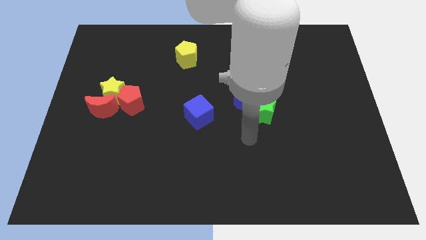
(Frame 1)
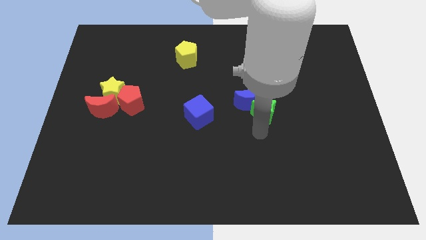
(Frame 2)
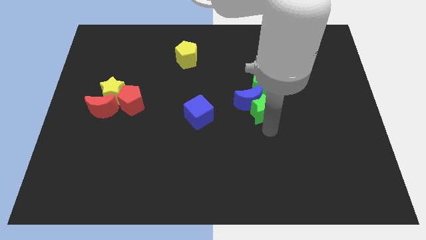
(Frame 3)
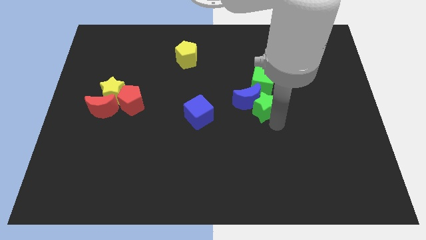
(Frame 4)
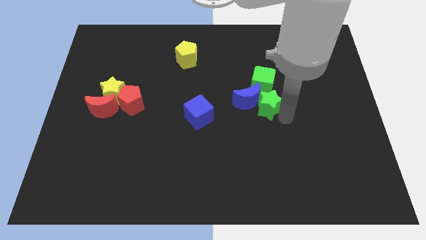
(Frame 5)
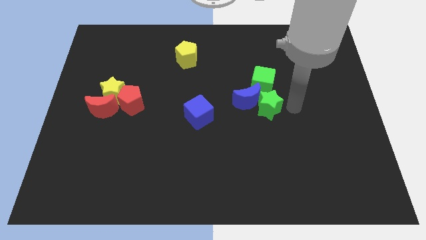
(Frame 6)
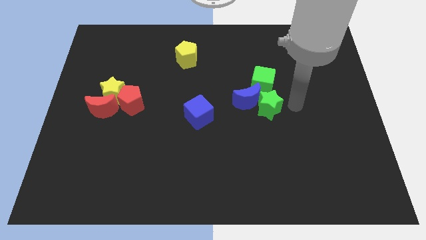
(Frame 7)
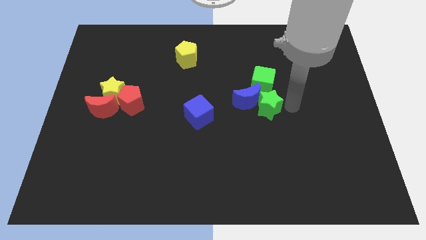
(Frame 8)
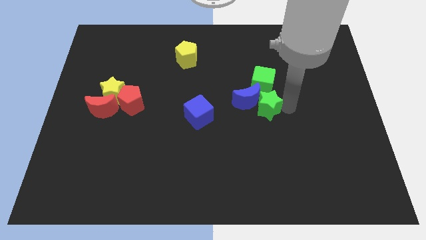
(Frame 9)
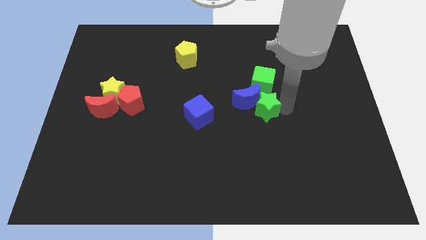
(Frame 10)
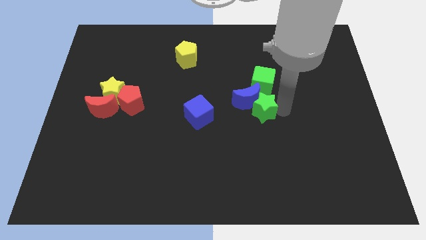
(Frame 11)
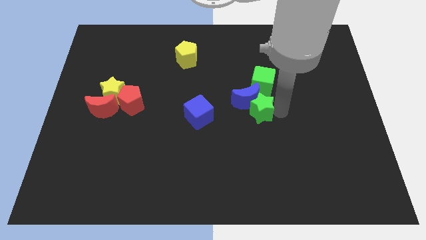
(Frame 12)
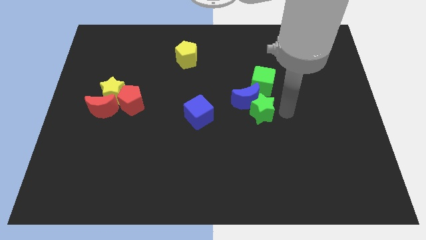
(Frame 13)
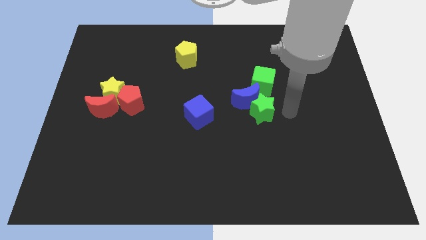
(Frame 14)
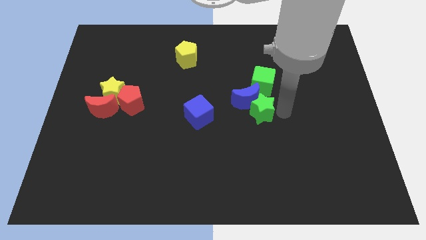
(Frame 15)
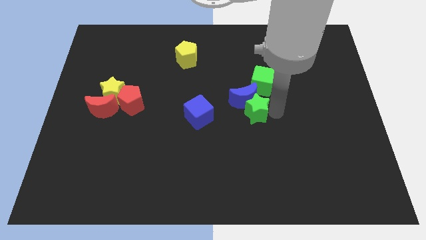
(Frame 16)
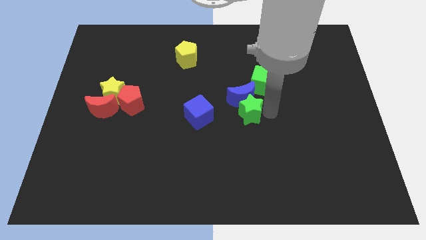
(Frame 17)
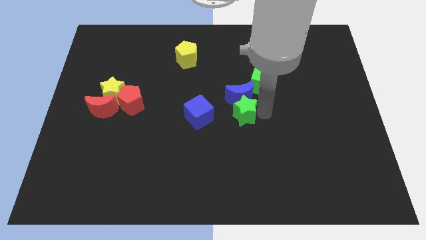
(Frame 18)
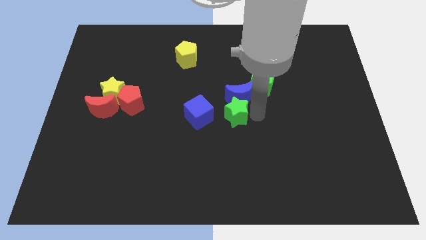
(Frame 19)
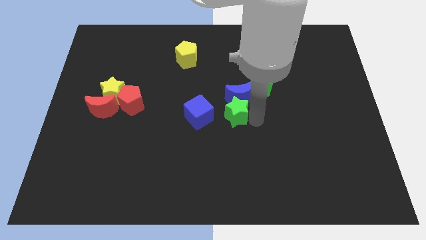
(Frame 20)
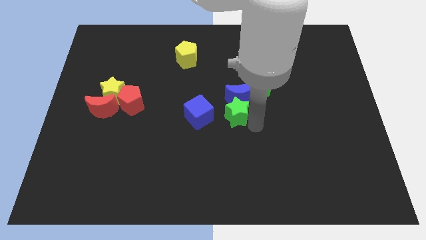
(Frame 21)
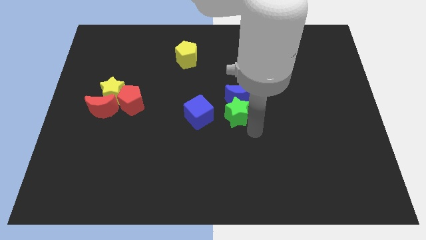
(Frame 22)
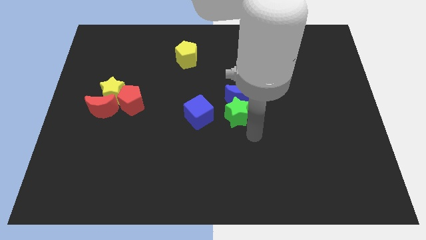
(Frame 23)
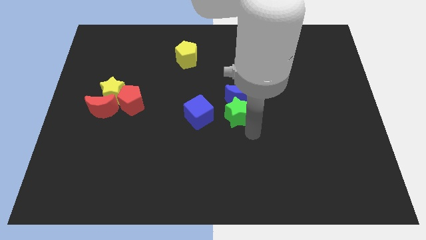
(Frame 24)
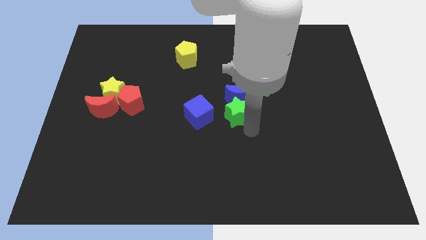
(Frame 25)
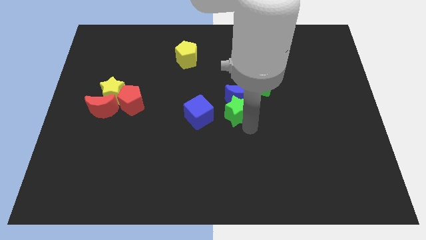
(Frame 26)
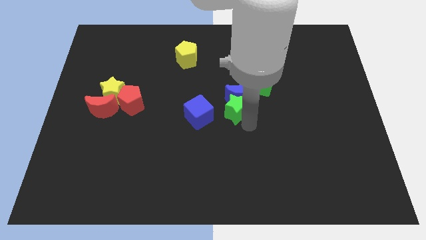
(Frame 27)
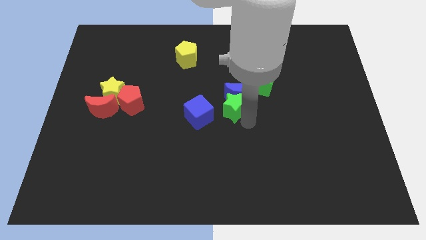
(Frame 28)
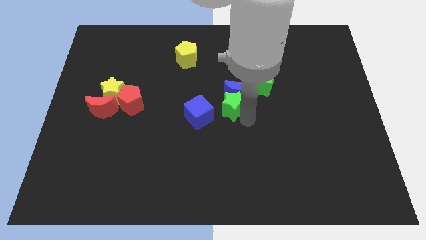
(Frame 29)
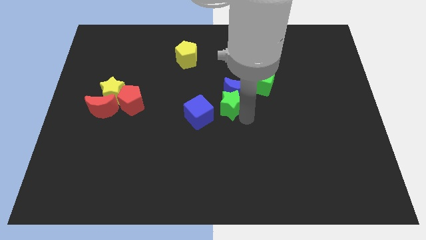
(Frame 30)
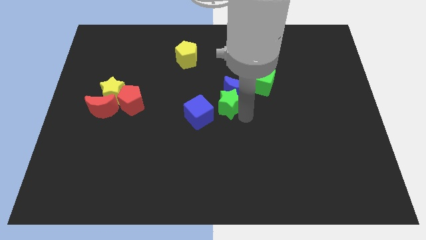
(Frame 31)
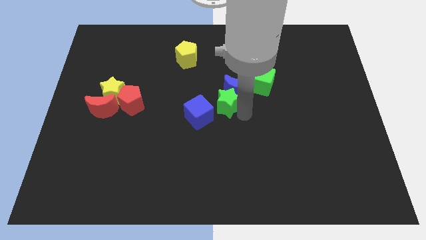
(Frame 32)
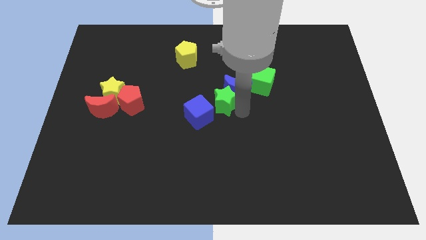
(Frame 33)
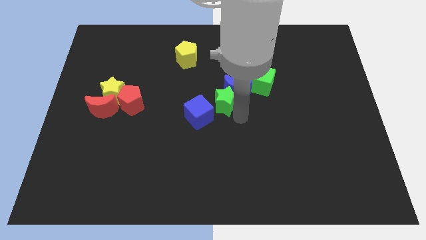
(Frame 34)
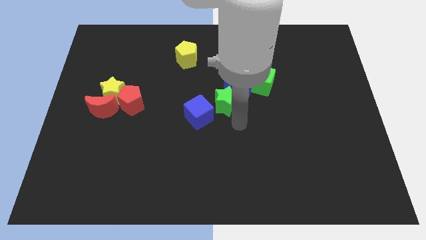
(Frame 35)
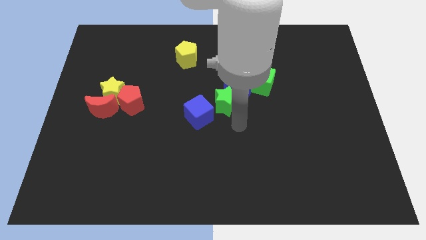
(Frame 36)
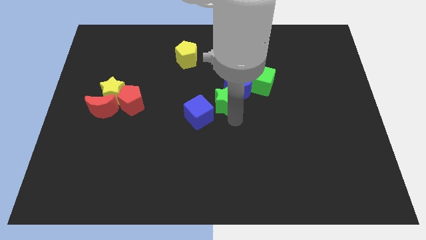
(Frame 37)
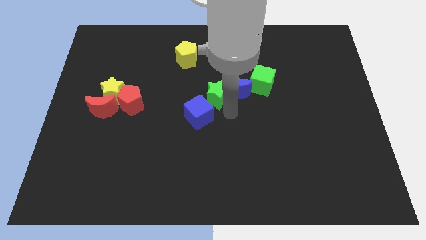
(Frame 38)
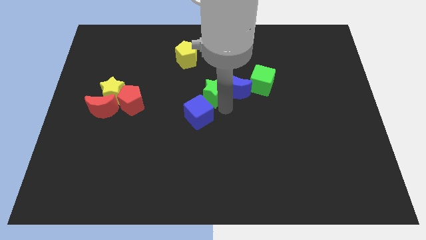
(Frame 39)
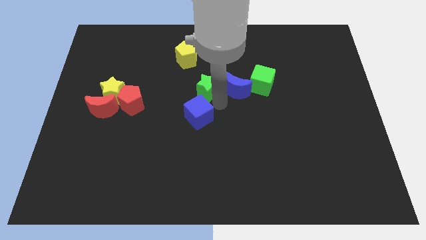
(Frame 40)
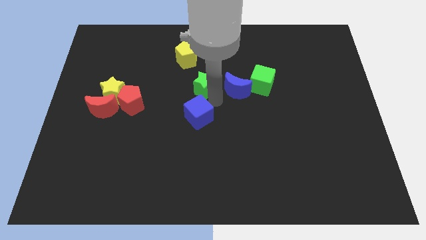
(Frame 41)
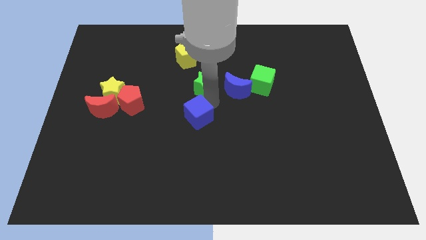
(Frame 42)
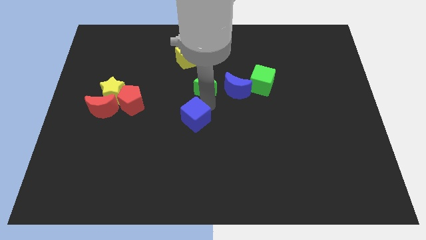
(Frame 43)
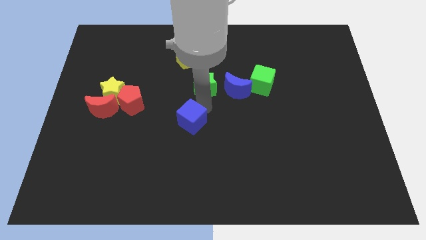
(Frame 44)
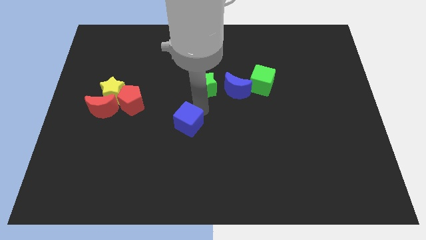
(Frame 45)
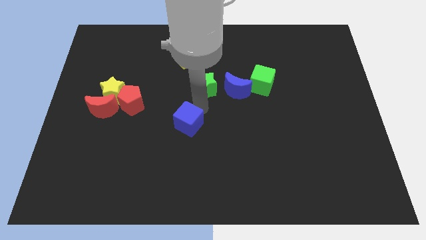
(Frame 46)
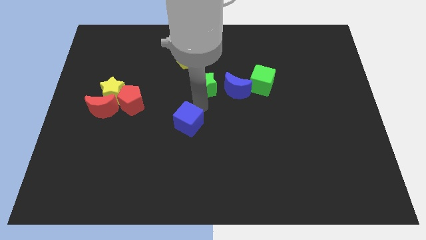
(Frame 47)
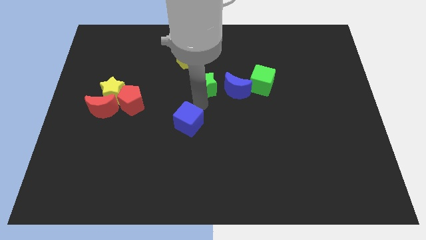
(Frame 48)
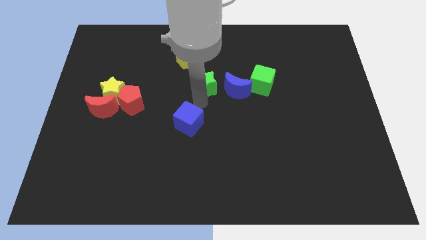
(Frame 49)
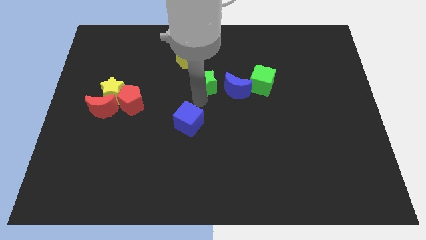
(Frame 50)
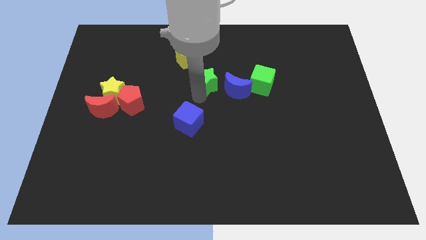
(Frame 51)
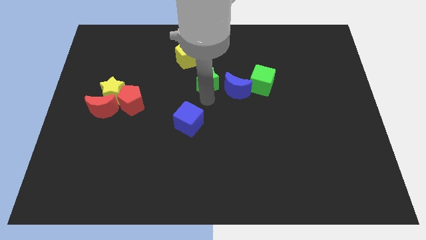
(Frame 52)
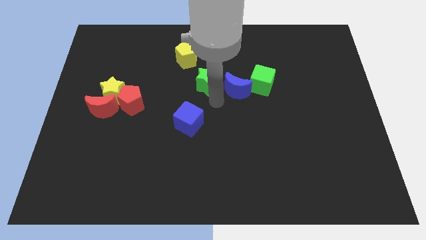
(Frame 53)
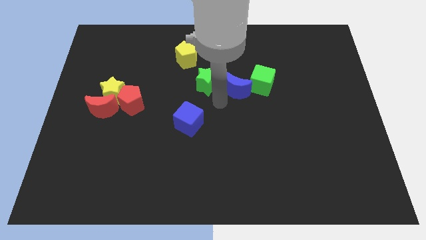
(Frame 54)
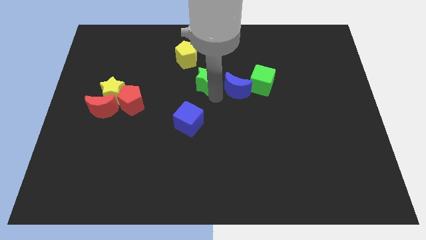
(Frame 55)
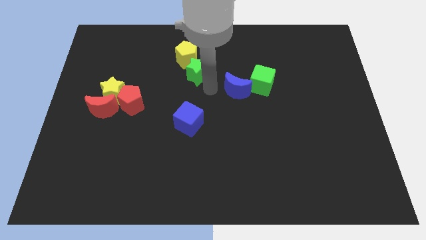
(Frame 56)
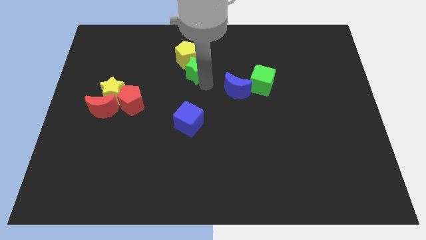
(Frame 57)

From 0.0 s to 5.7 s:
put the green star close to the yellow pentagon

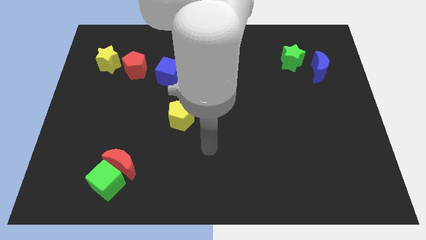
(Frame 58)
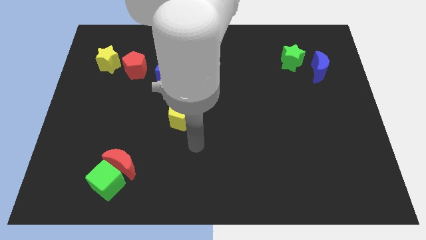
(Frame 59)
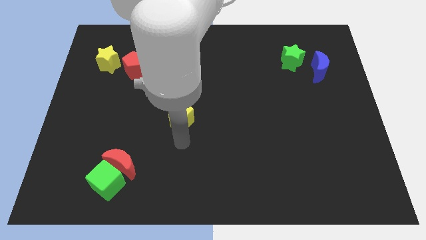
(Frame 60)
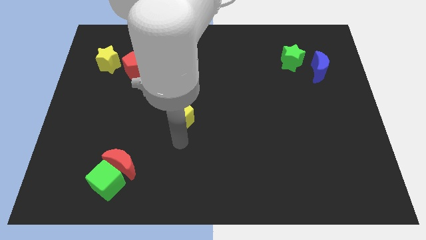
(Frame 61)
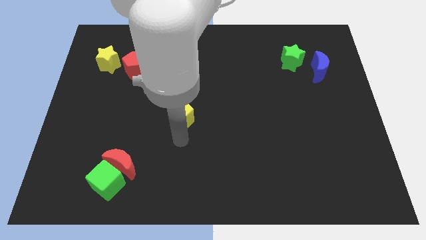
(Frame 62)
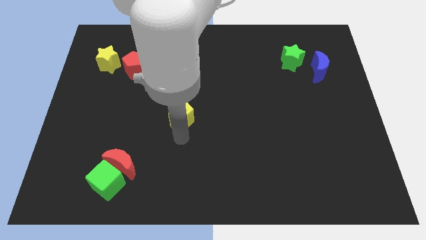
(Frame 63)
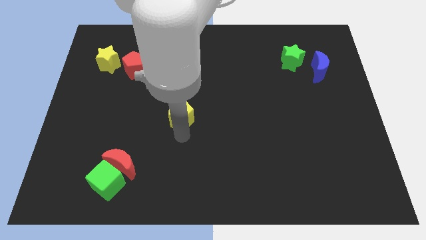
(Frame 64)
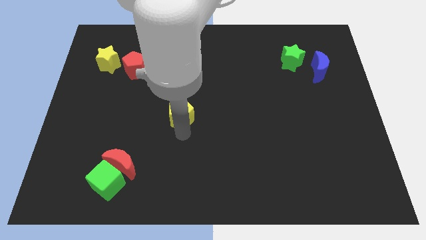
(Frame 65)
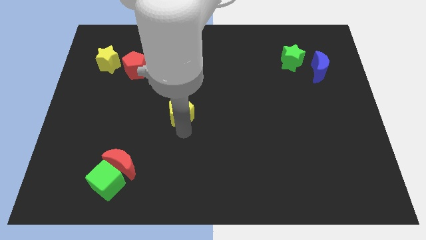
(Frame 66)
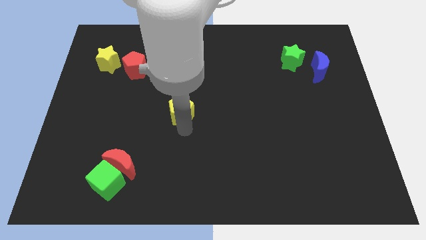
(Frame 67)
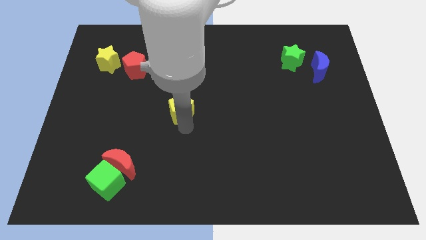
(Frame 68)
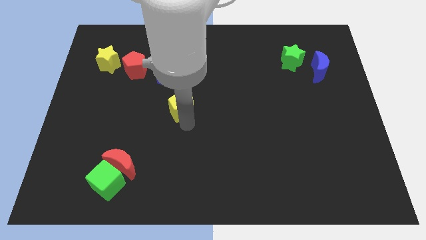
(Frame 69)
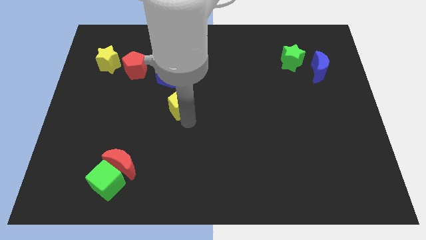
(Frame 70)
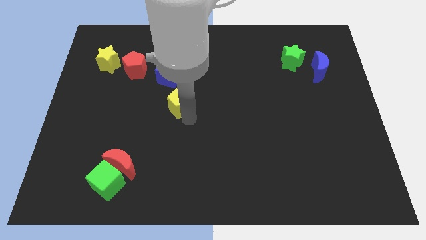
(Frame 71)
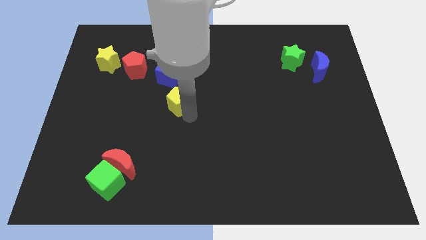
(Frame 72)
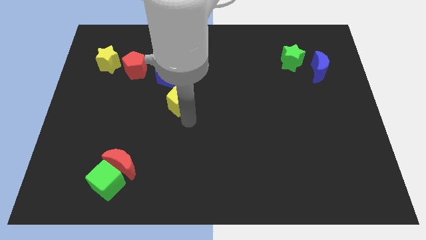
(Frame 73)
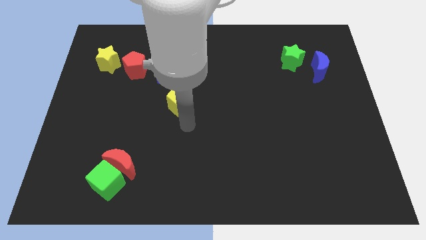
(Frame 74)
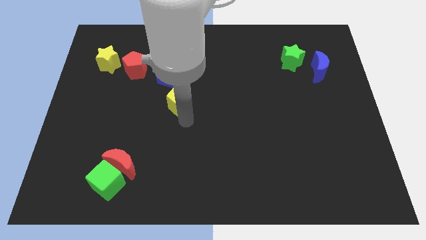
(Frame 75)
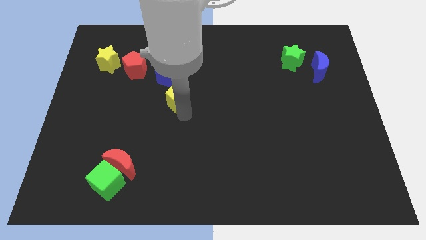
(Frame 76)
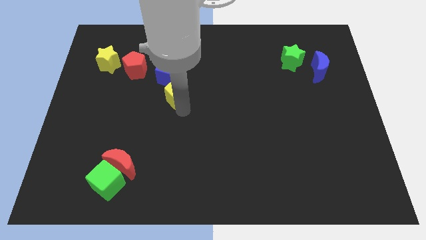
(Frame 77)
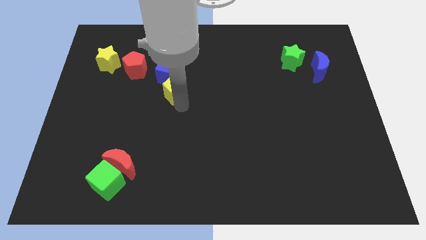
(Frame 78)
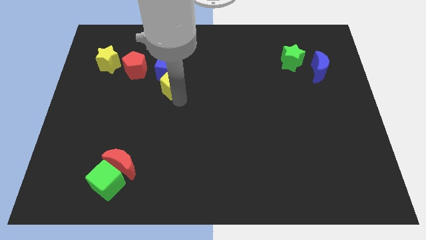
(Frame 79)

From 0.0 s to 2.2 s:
push the yellow pentagon close to the blue cube
